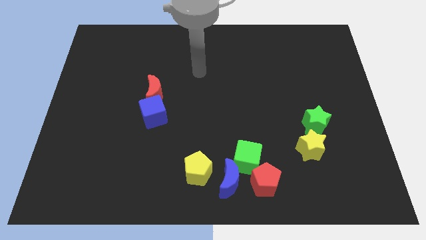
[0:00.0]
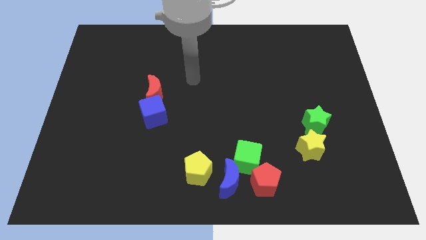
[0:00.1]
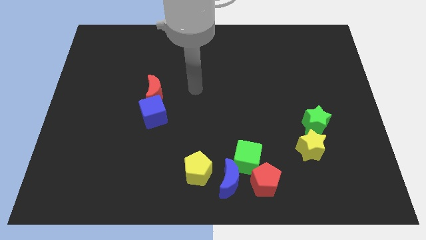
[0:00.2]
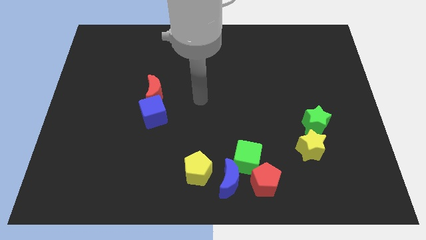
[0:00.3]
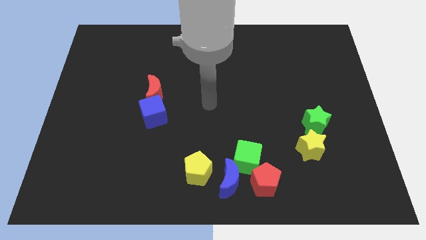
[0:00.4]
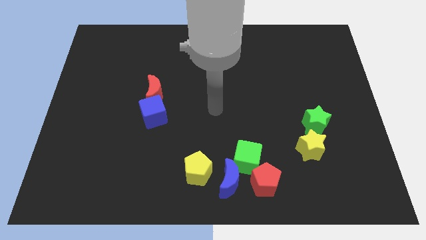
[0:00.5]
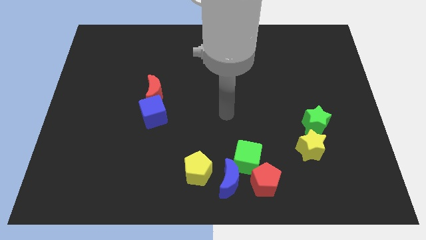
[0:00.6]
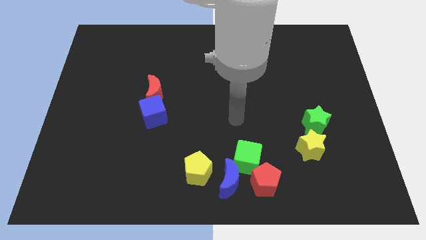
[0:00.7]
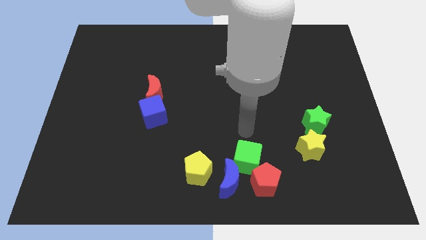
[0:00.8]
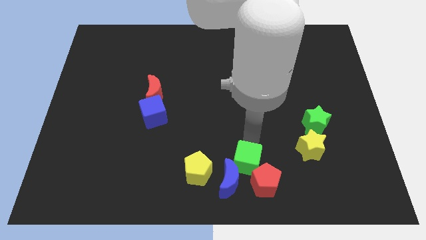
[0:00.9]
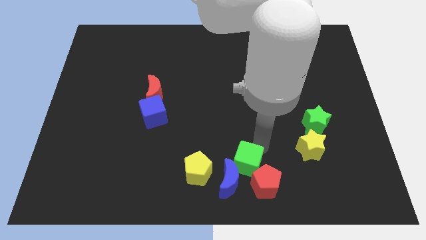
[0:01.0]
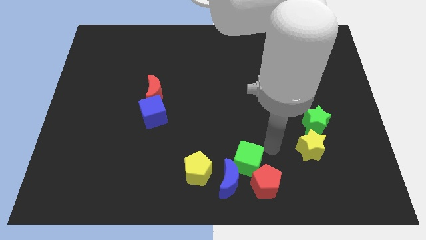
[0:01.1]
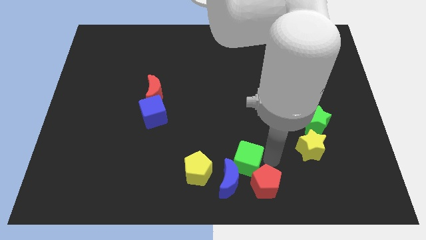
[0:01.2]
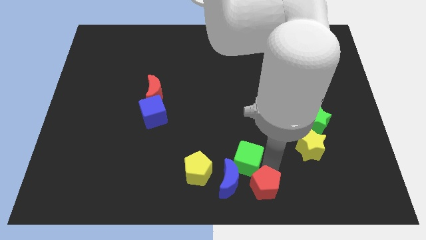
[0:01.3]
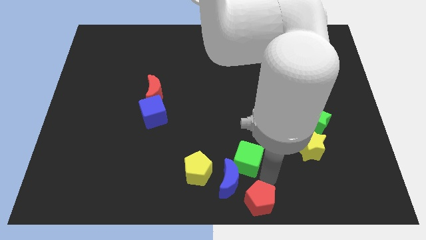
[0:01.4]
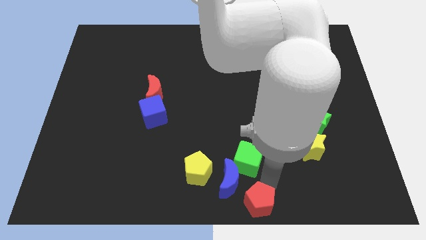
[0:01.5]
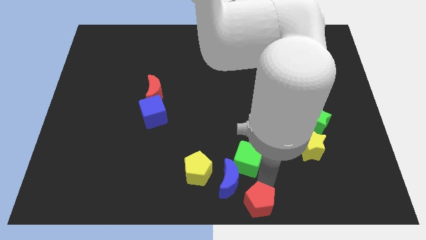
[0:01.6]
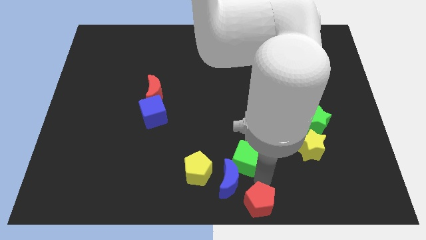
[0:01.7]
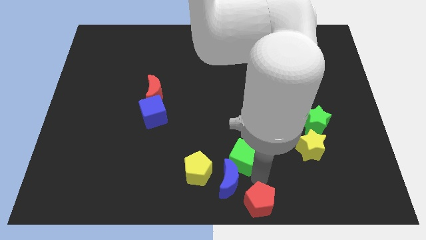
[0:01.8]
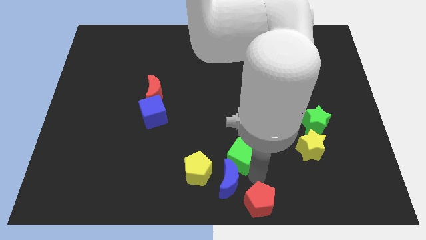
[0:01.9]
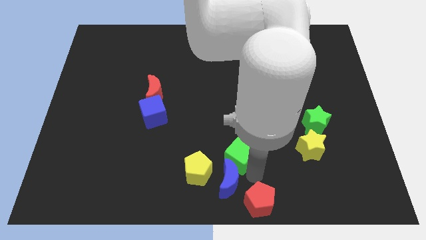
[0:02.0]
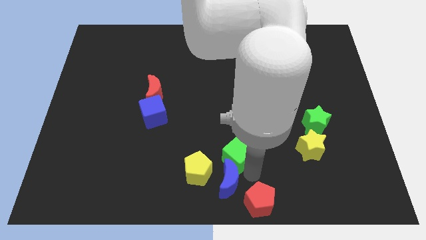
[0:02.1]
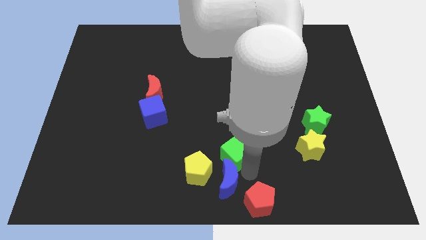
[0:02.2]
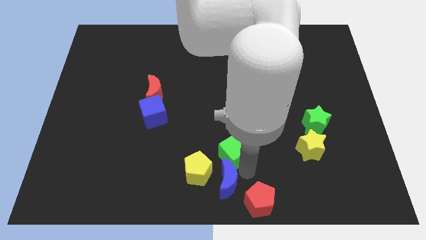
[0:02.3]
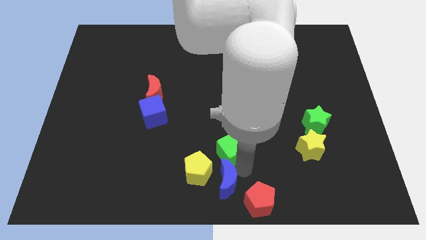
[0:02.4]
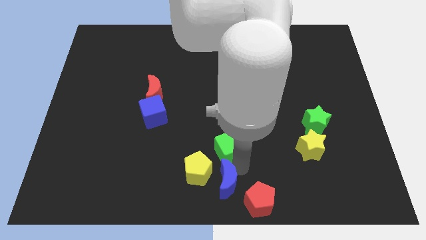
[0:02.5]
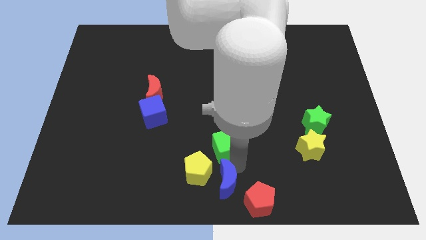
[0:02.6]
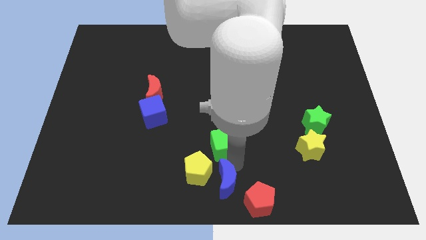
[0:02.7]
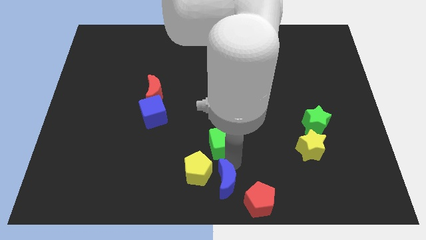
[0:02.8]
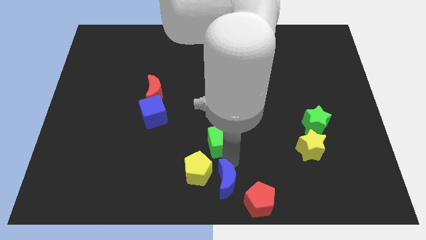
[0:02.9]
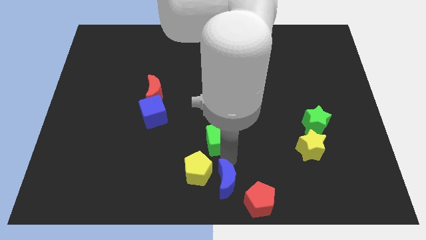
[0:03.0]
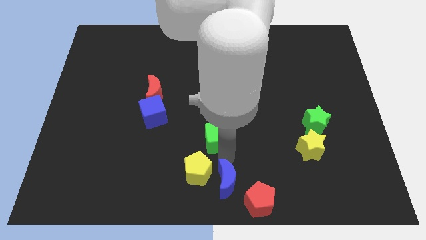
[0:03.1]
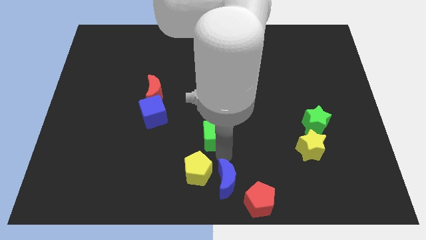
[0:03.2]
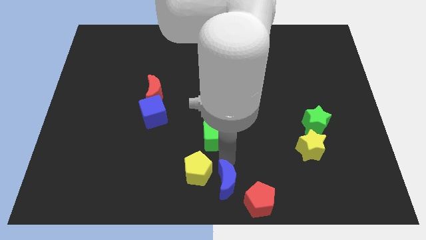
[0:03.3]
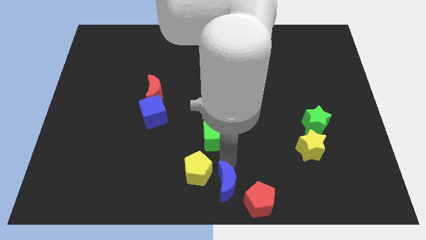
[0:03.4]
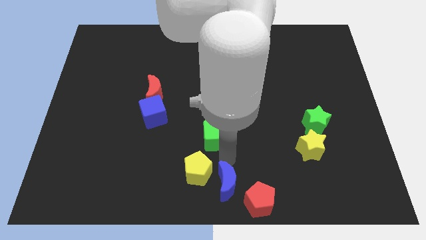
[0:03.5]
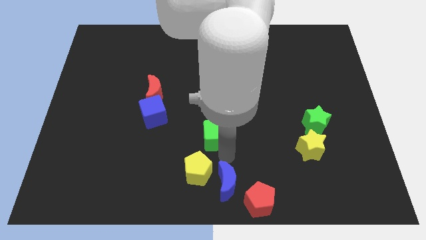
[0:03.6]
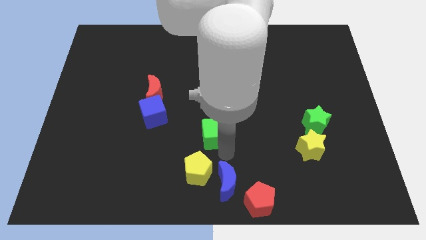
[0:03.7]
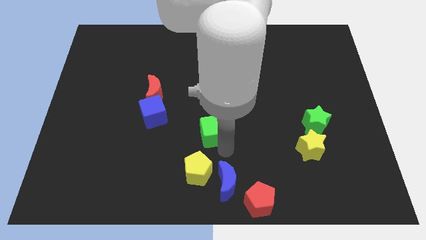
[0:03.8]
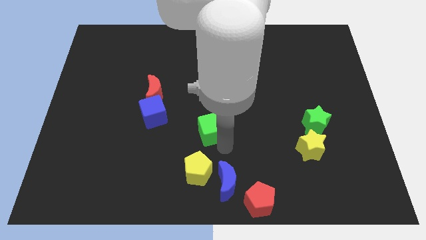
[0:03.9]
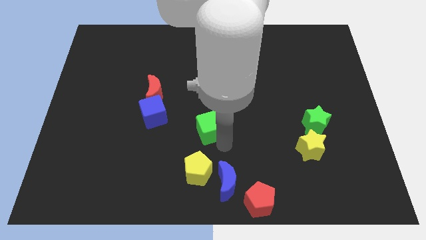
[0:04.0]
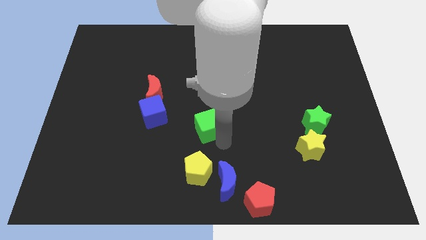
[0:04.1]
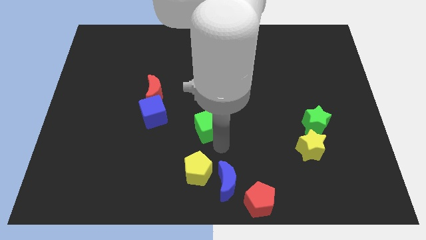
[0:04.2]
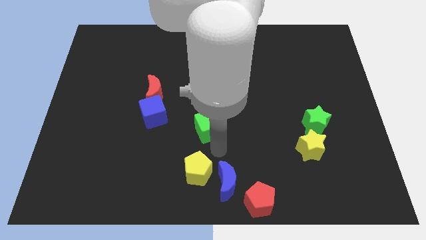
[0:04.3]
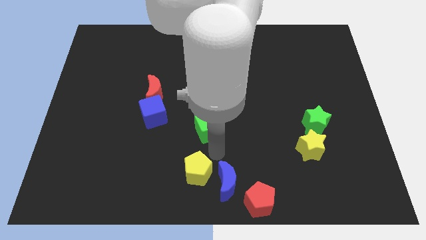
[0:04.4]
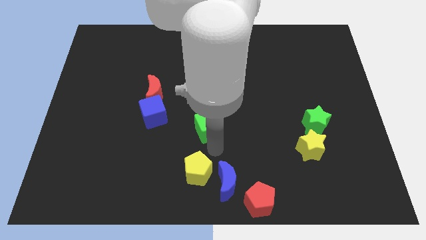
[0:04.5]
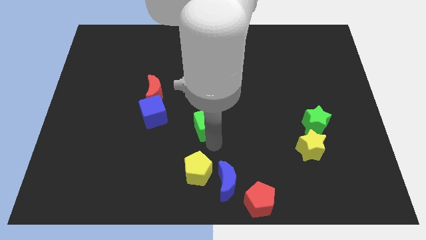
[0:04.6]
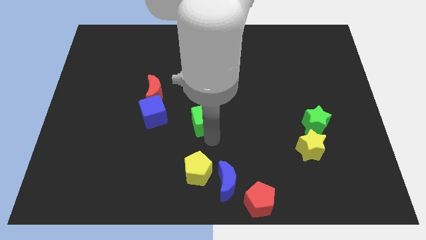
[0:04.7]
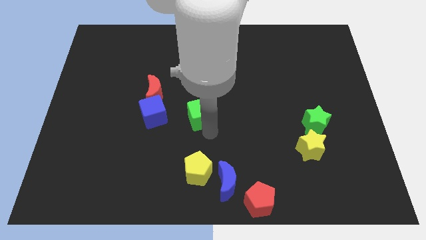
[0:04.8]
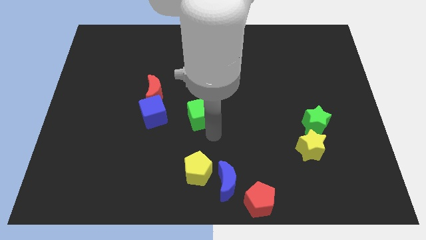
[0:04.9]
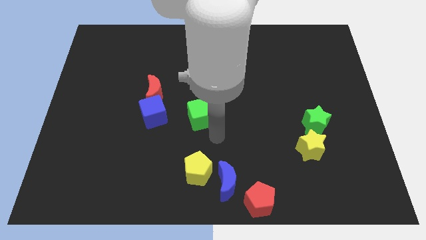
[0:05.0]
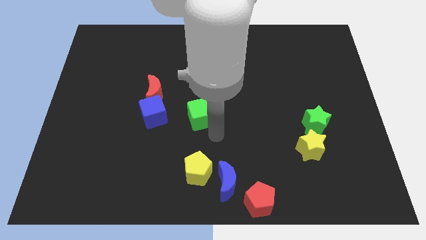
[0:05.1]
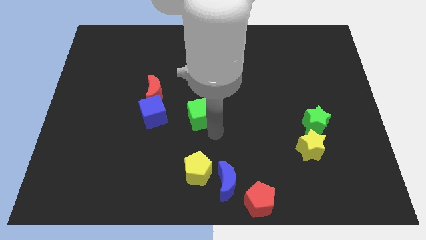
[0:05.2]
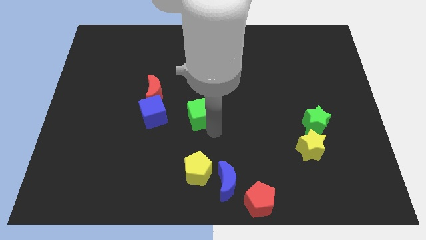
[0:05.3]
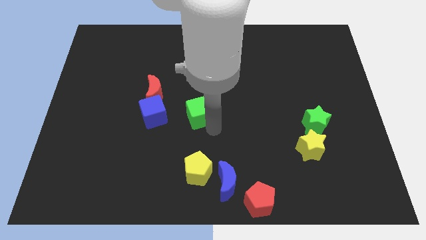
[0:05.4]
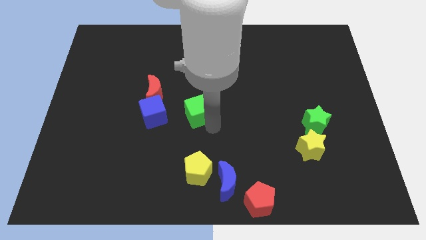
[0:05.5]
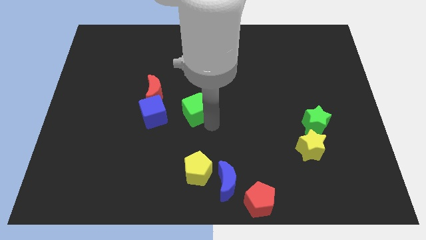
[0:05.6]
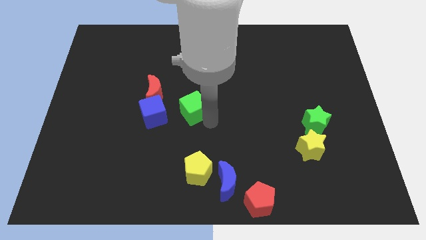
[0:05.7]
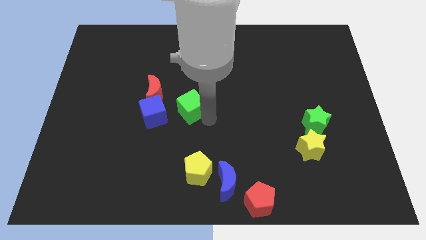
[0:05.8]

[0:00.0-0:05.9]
move the green cube diagonally up and to the right of the blue cube

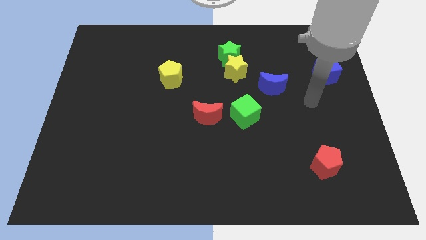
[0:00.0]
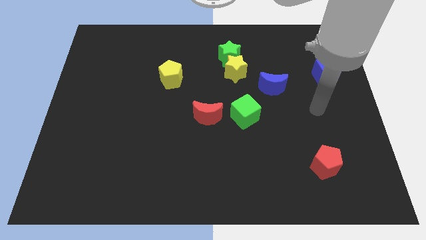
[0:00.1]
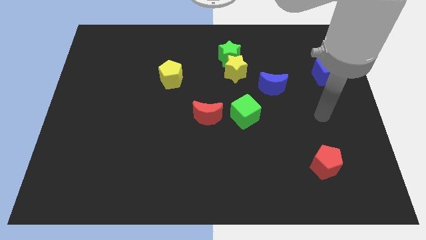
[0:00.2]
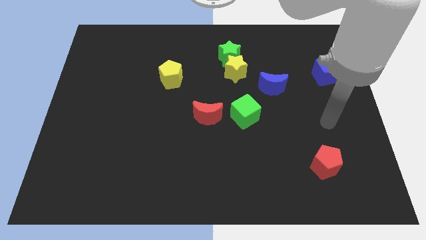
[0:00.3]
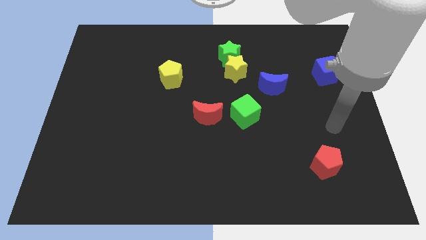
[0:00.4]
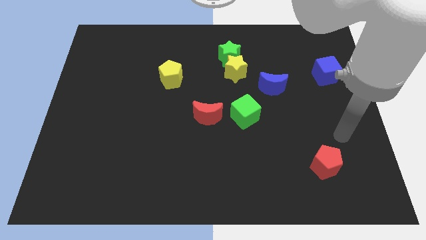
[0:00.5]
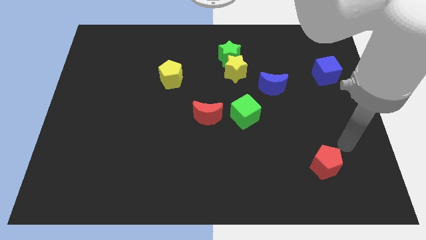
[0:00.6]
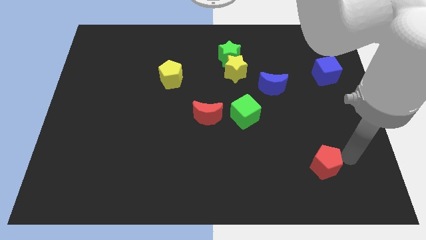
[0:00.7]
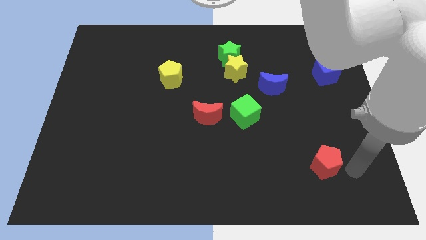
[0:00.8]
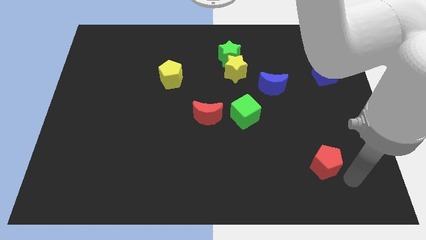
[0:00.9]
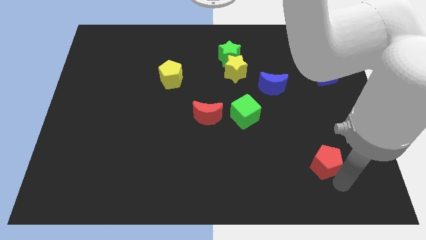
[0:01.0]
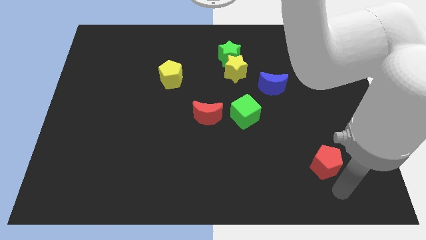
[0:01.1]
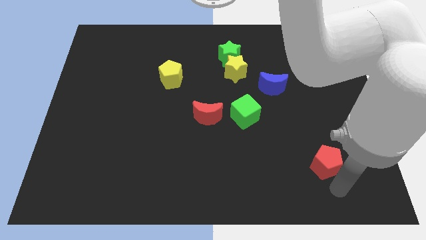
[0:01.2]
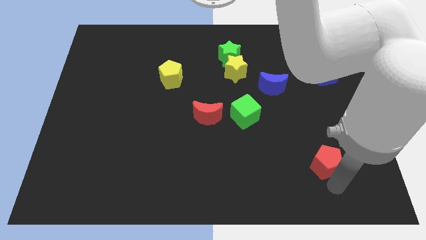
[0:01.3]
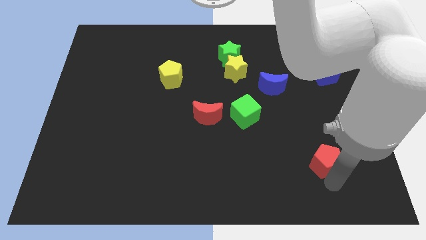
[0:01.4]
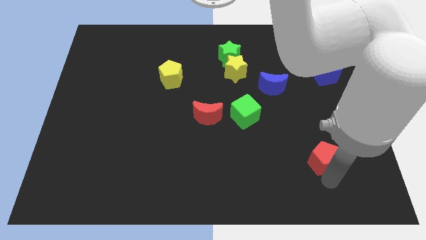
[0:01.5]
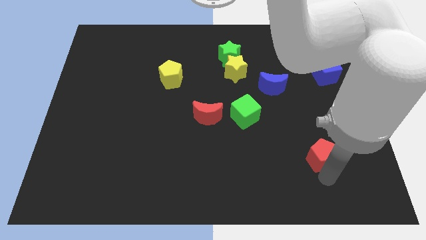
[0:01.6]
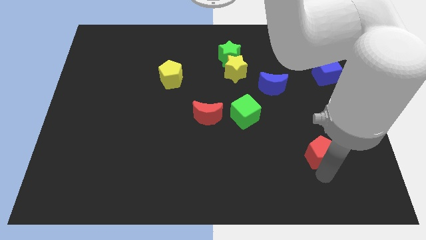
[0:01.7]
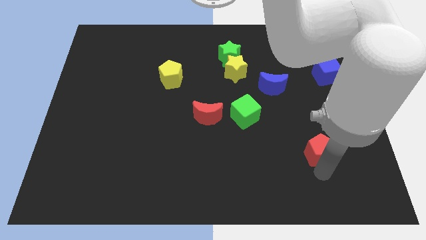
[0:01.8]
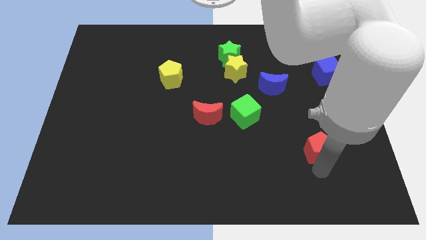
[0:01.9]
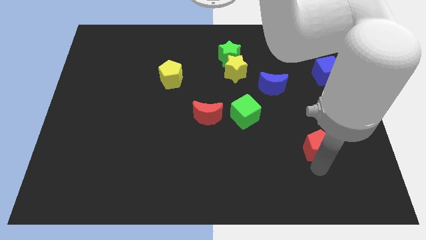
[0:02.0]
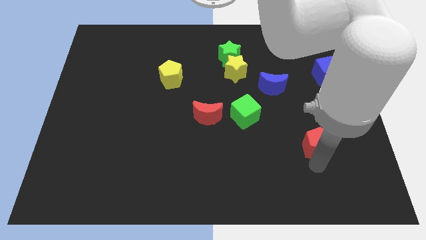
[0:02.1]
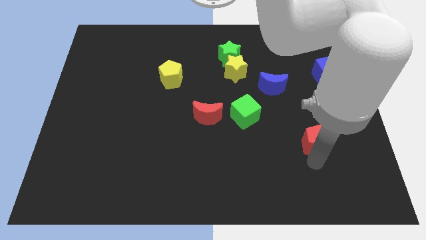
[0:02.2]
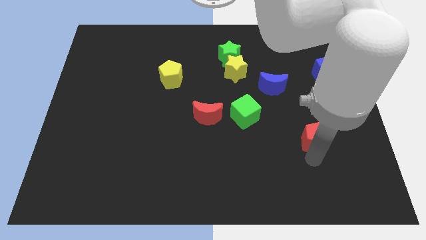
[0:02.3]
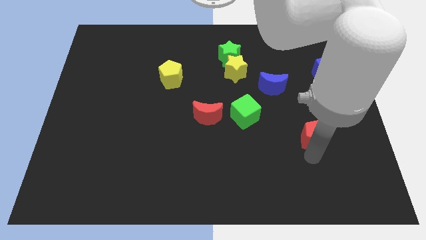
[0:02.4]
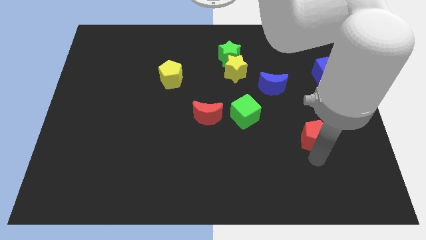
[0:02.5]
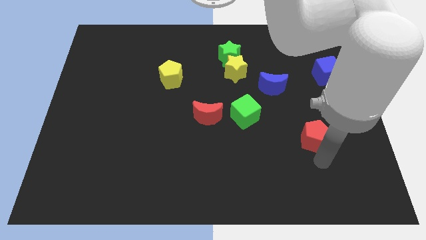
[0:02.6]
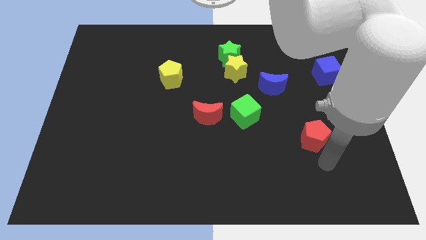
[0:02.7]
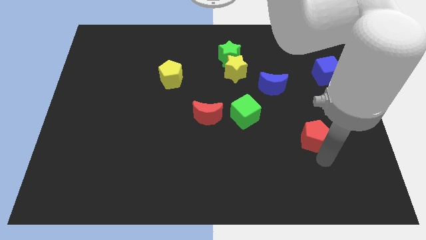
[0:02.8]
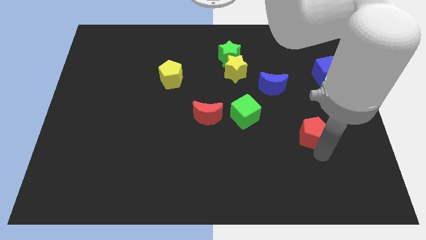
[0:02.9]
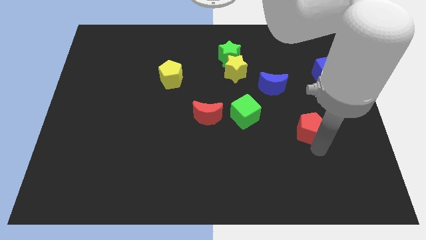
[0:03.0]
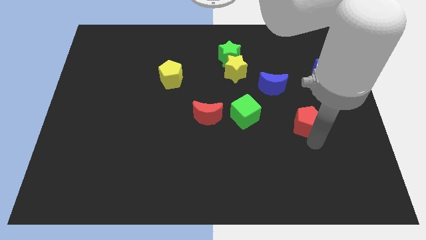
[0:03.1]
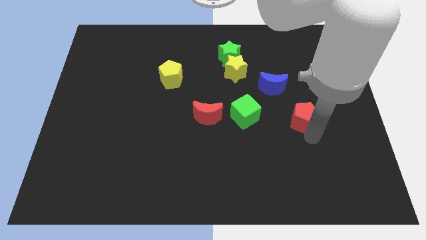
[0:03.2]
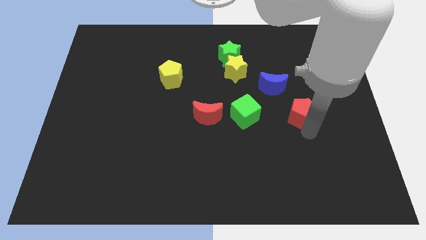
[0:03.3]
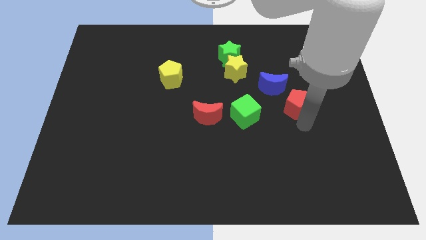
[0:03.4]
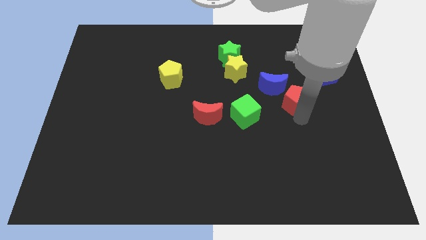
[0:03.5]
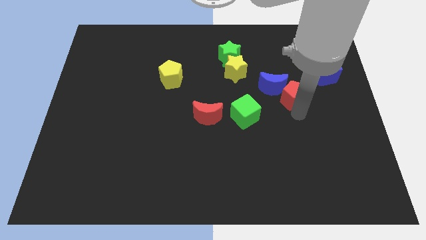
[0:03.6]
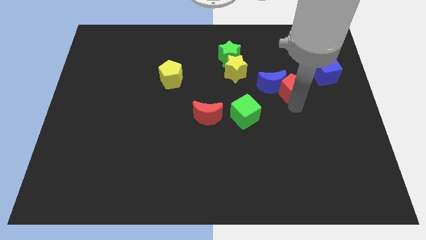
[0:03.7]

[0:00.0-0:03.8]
put the red pentagon to the top right side of the blue moon
